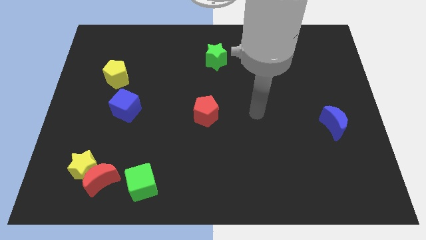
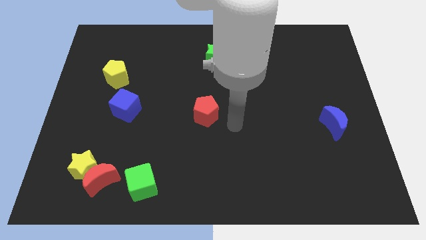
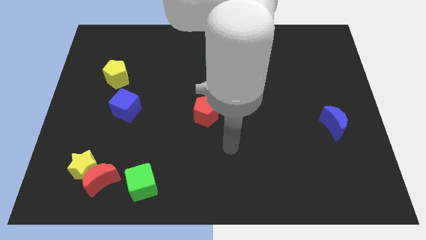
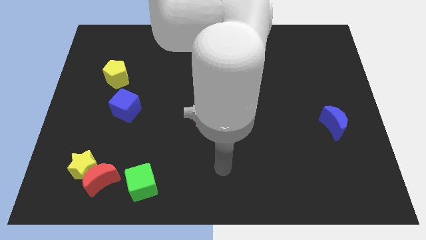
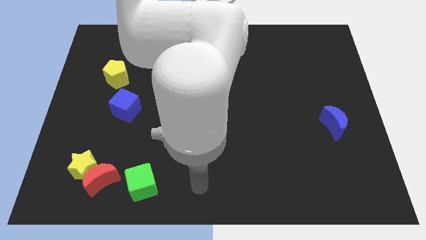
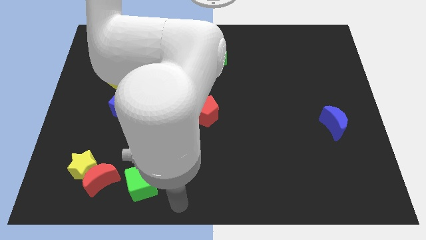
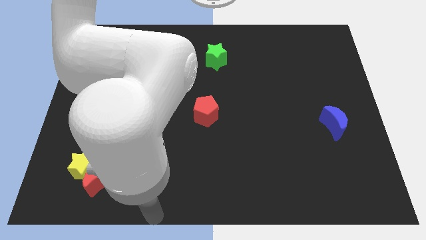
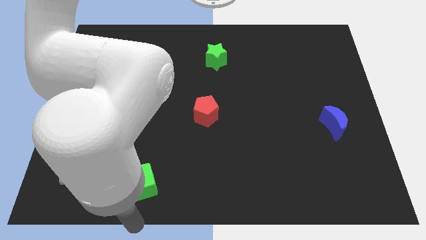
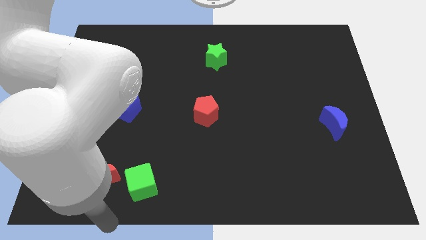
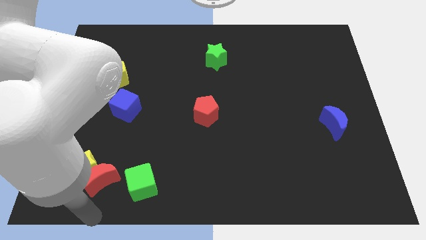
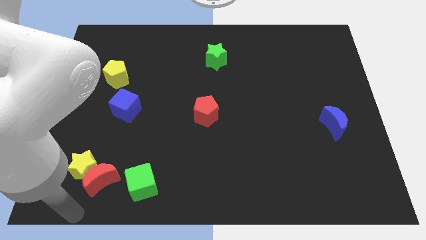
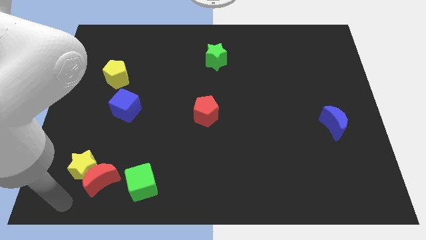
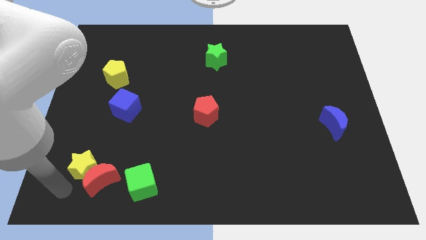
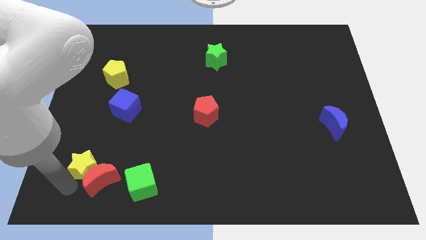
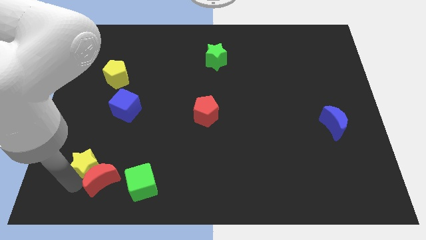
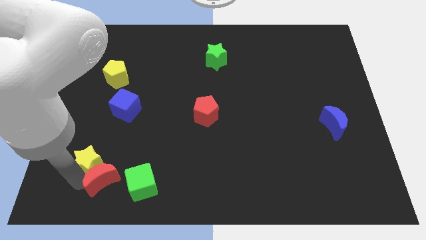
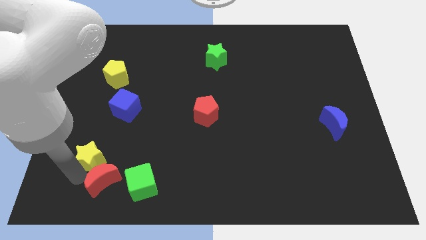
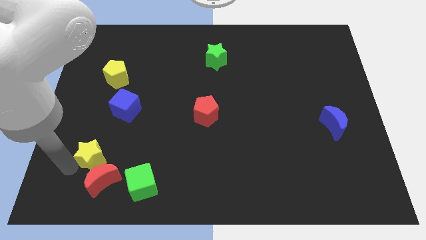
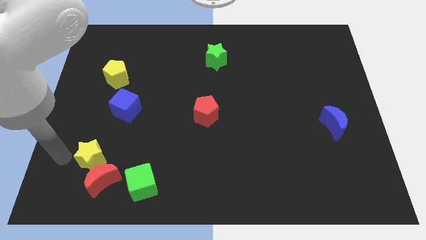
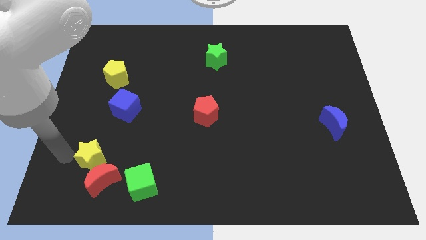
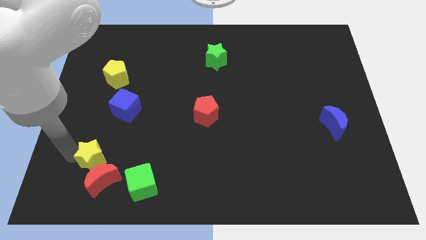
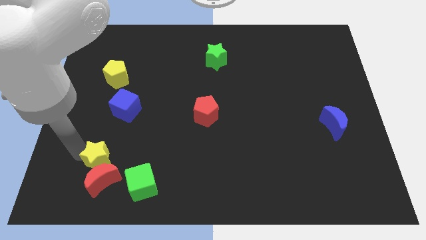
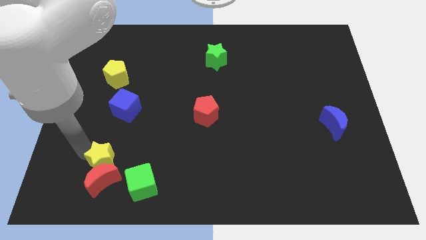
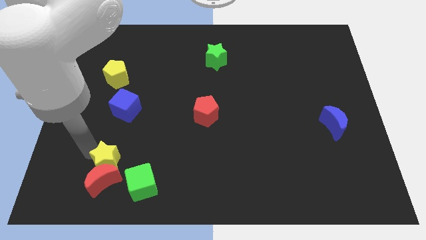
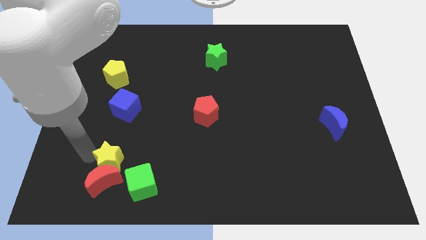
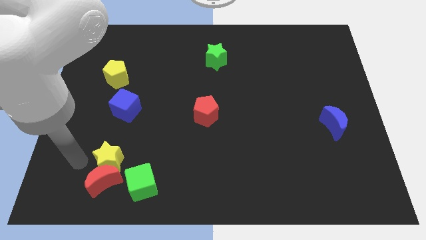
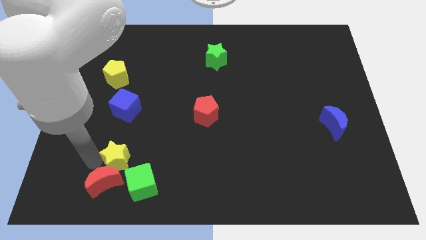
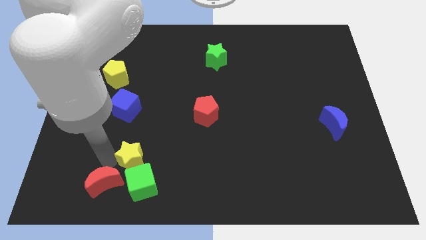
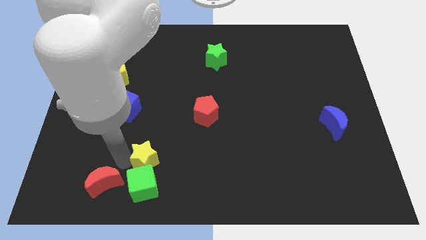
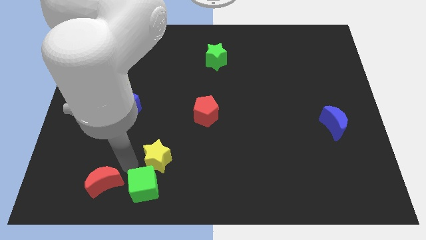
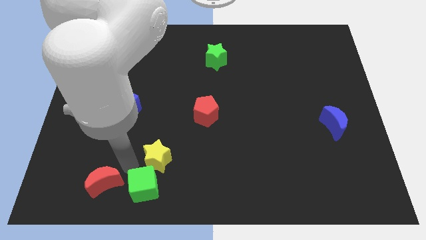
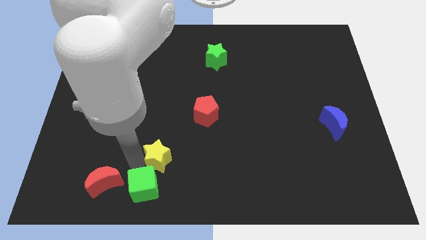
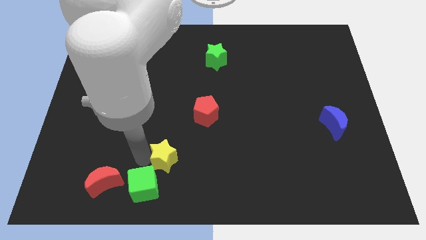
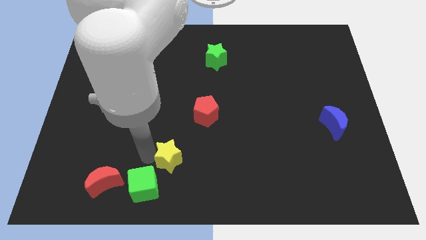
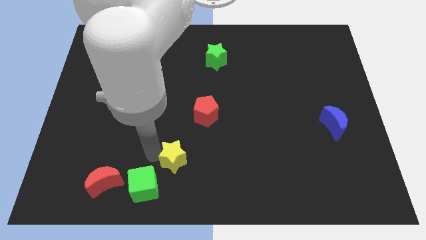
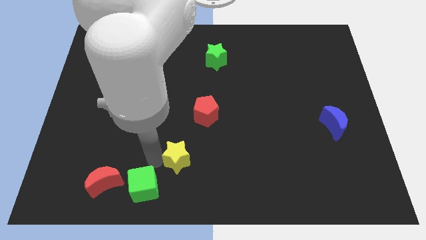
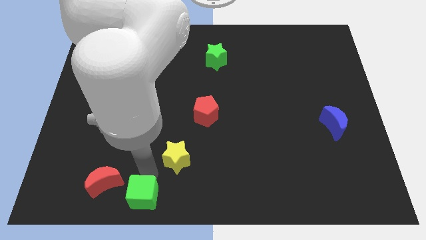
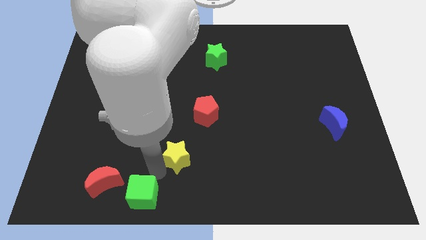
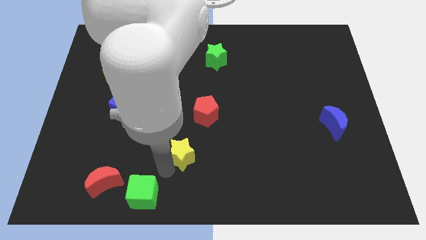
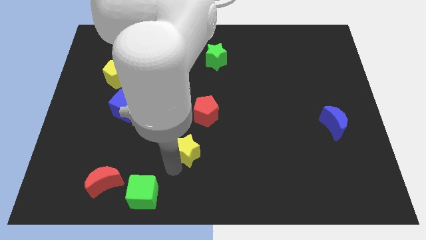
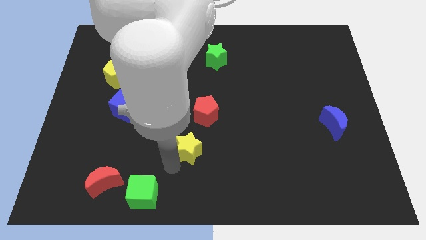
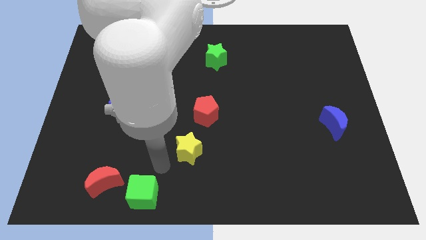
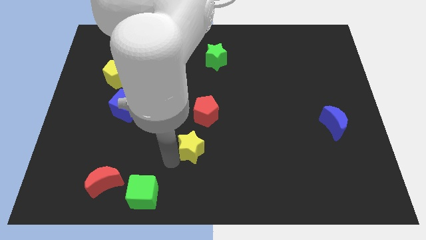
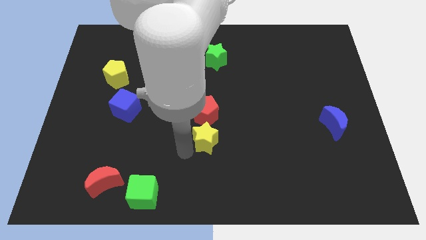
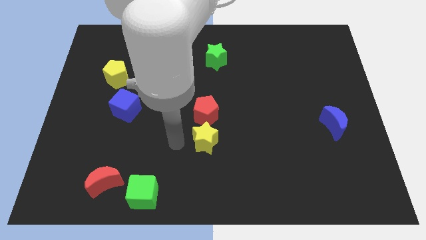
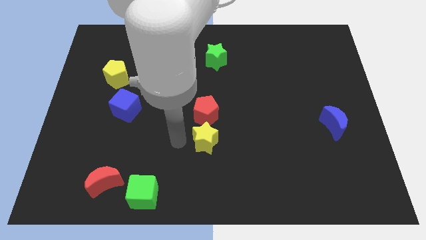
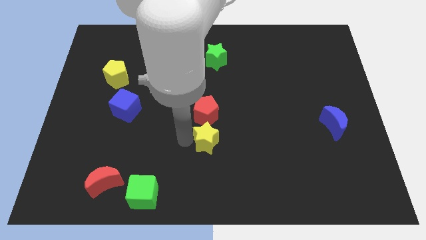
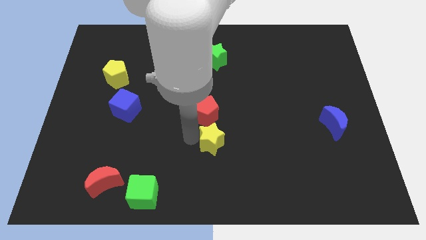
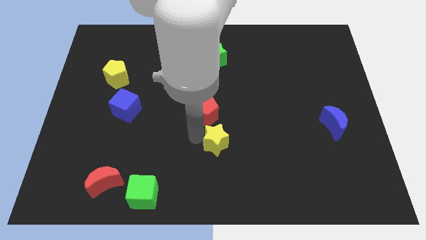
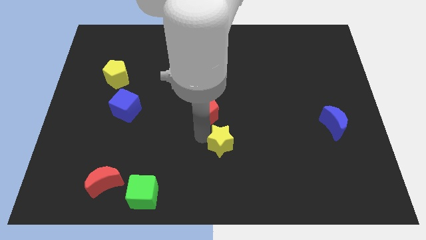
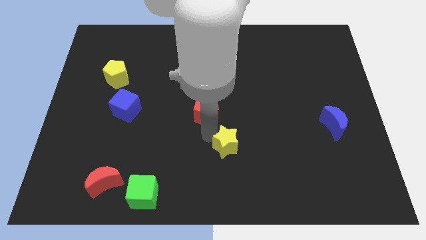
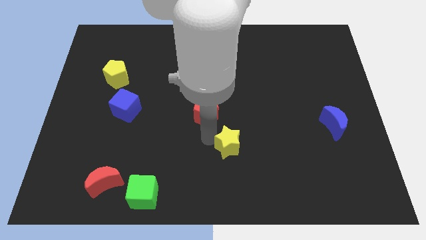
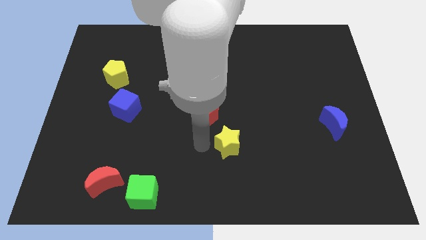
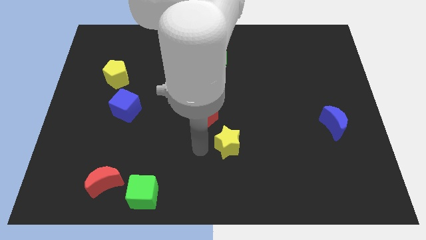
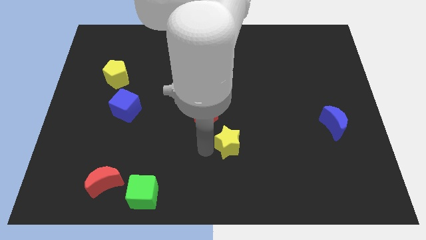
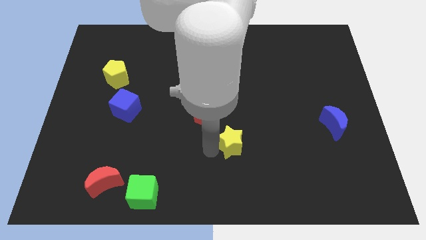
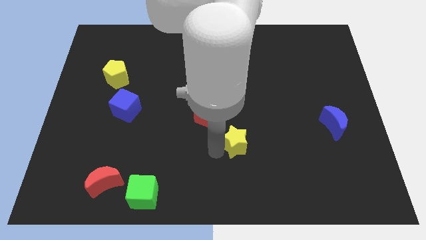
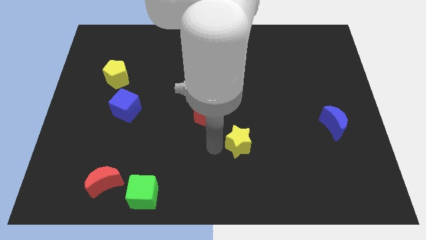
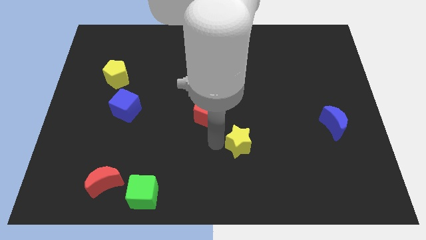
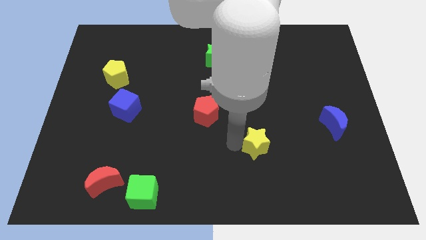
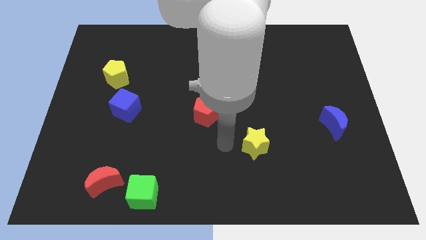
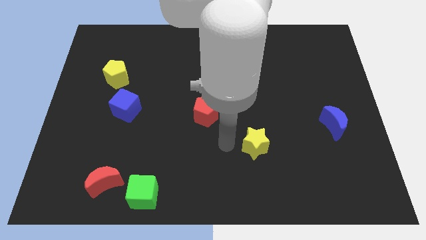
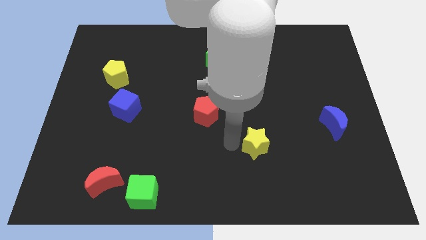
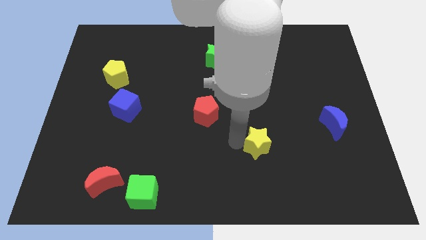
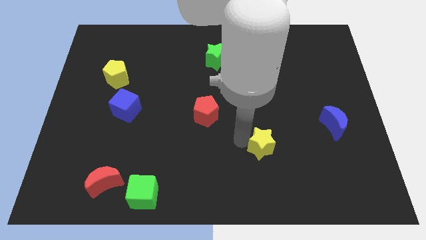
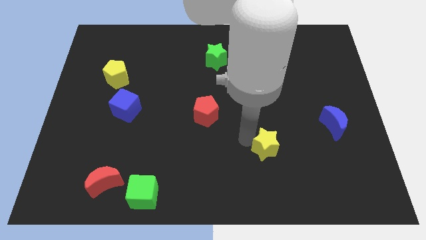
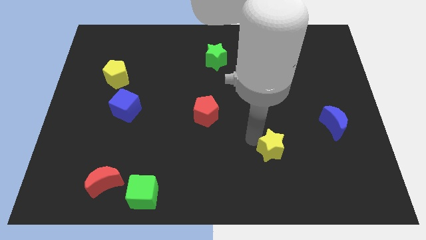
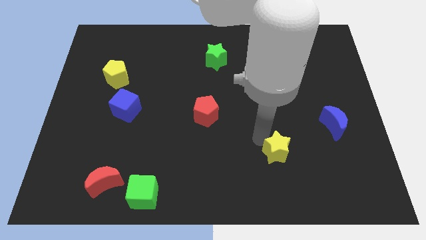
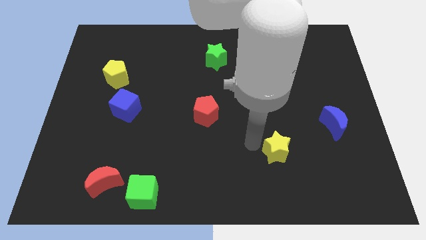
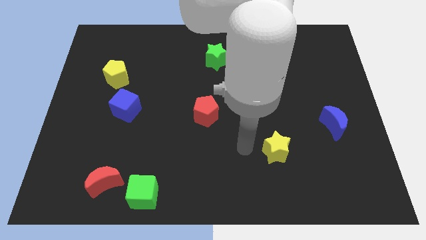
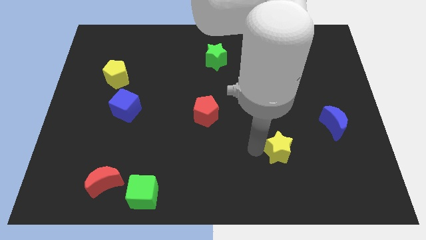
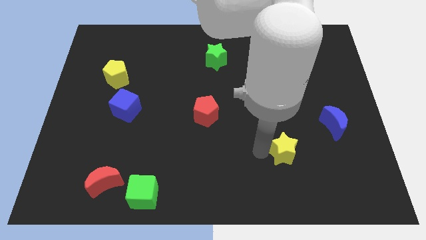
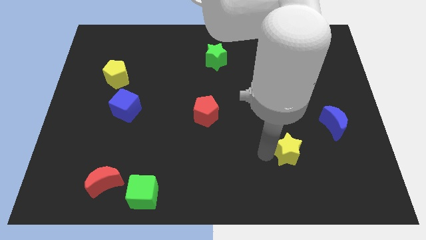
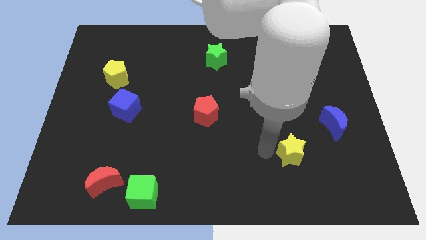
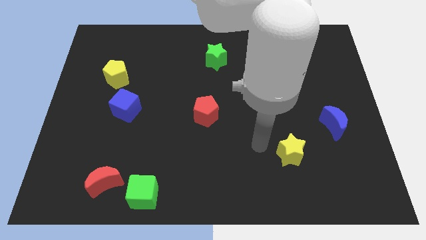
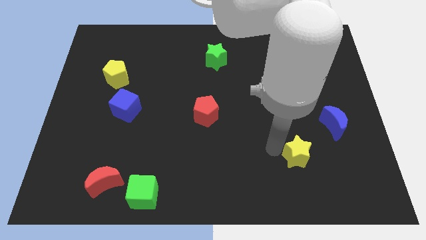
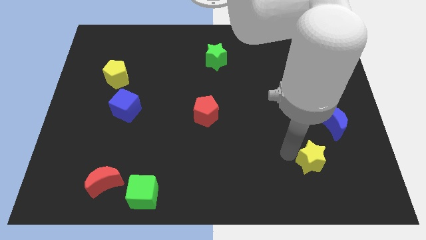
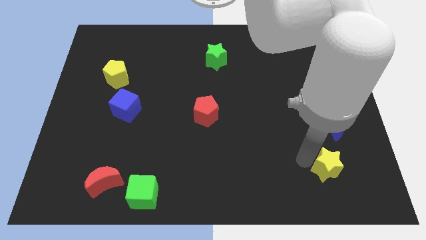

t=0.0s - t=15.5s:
push the yellow star below the blue moon

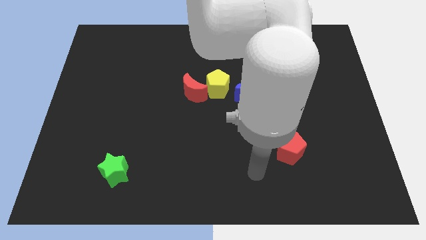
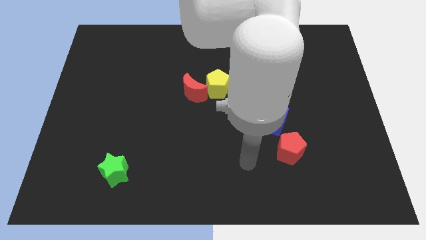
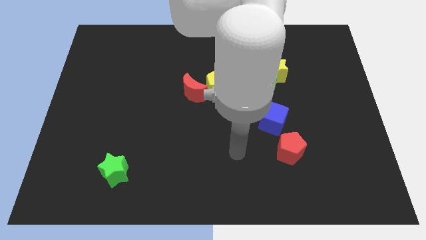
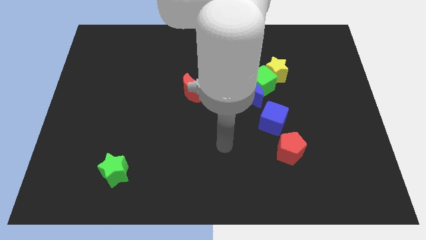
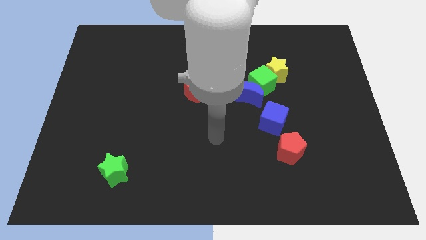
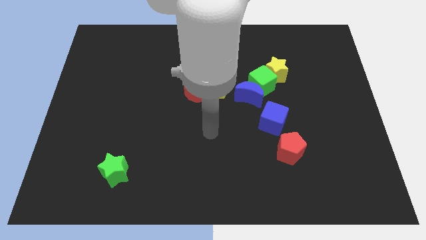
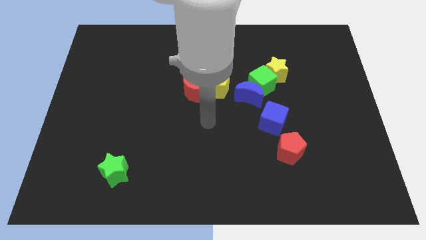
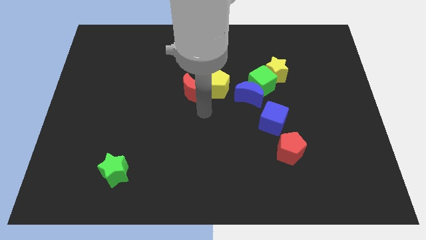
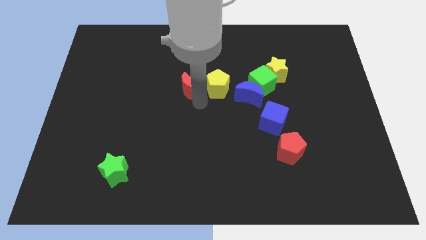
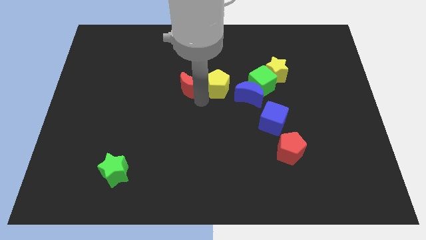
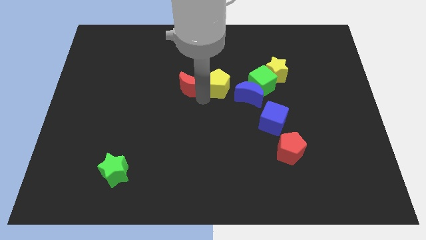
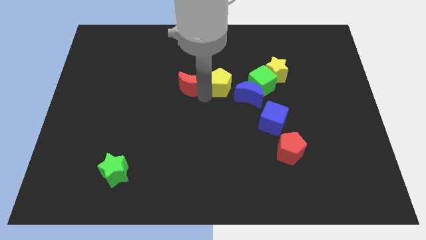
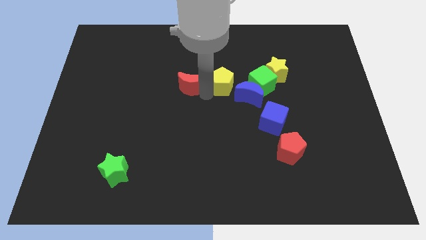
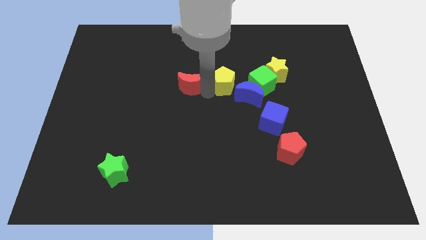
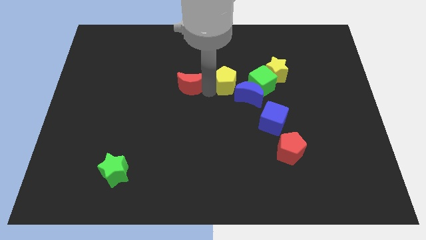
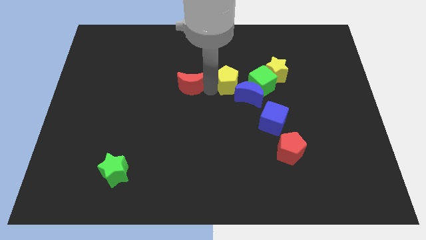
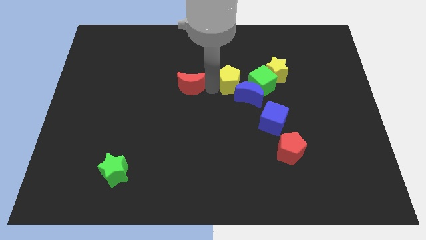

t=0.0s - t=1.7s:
push the yellow pentagon above the blue moon
